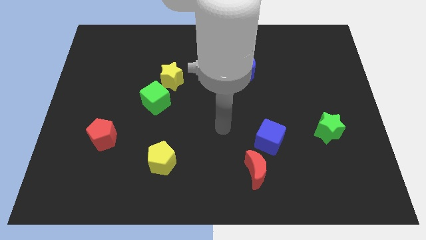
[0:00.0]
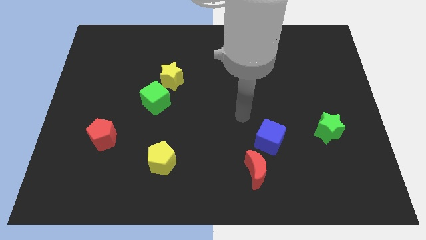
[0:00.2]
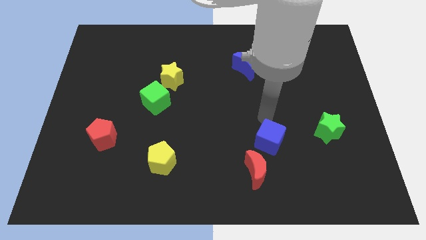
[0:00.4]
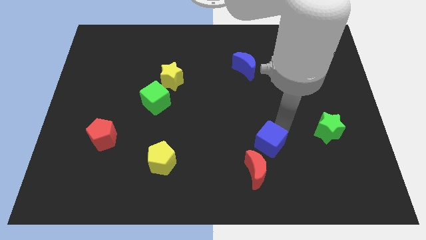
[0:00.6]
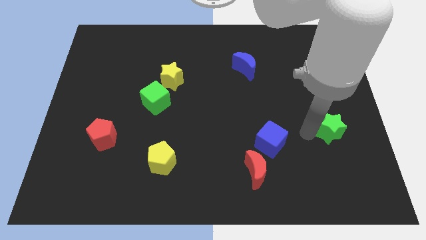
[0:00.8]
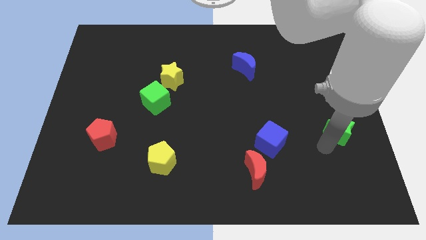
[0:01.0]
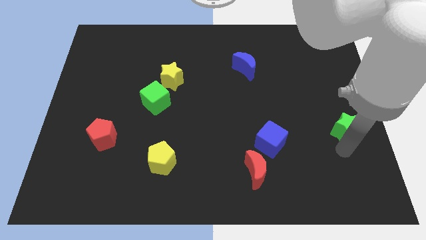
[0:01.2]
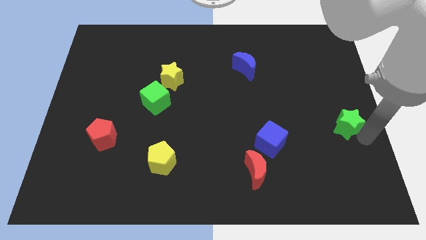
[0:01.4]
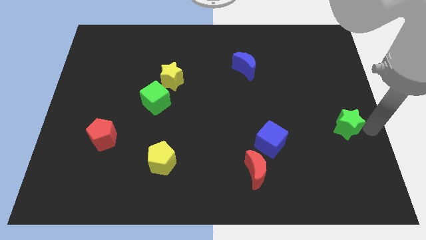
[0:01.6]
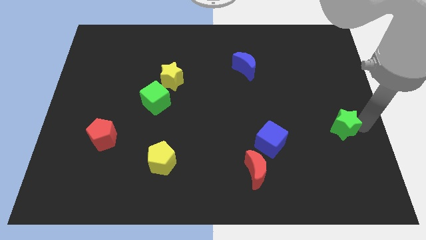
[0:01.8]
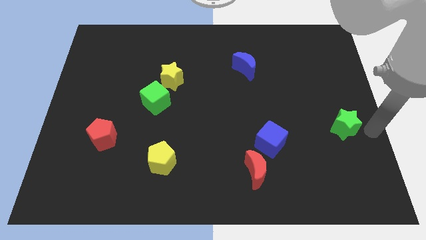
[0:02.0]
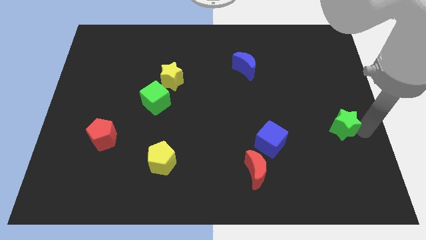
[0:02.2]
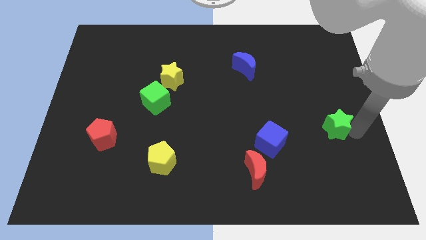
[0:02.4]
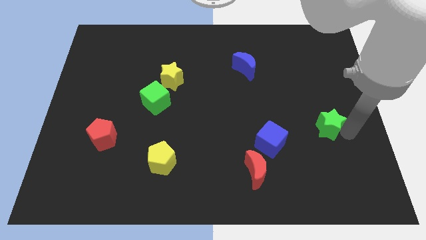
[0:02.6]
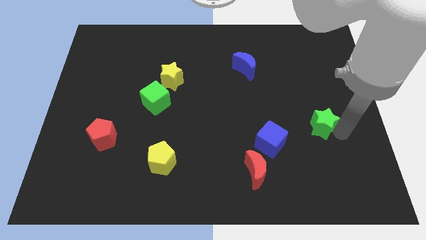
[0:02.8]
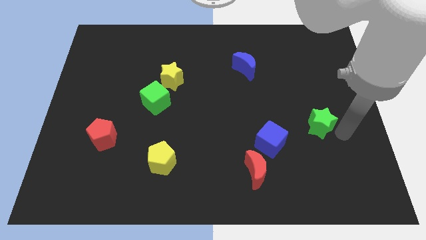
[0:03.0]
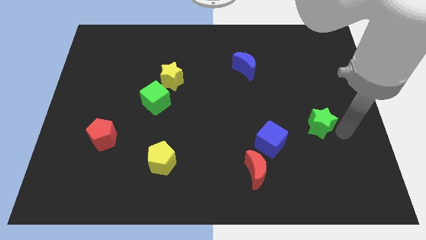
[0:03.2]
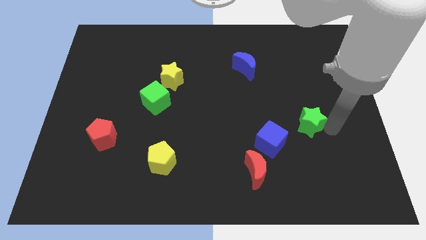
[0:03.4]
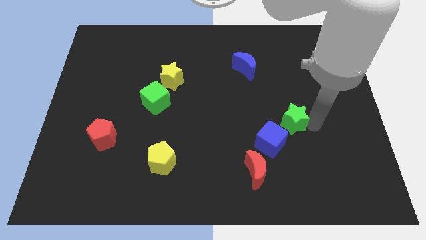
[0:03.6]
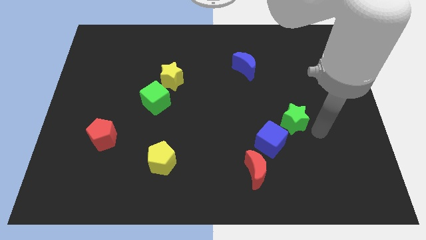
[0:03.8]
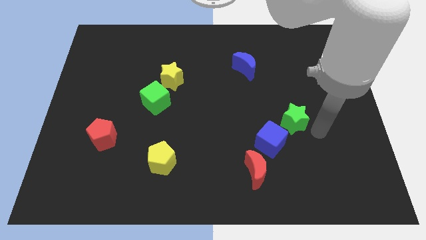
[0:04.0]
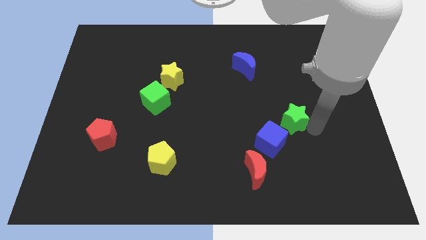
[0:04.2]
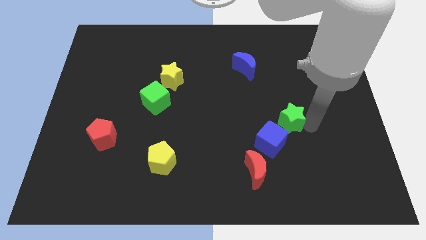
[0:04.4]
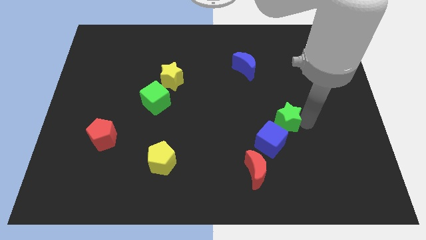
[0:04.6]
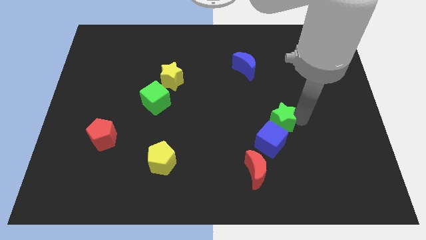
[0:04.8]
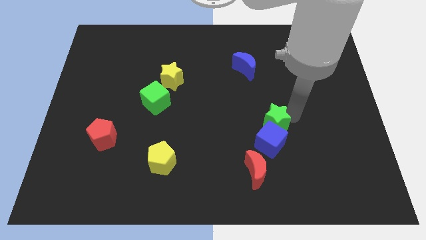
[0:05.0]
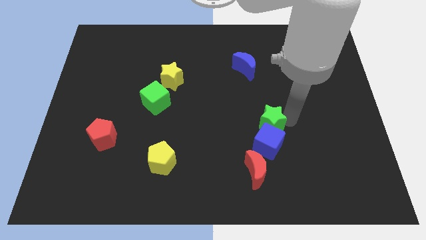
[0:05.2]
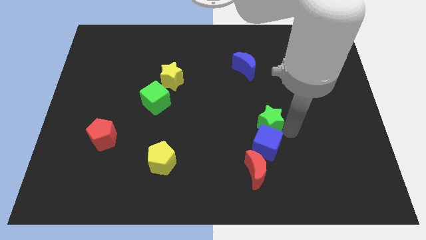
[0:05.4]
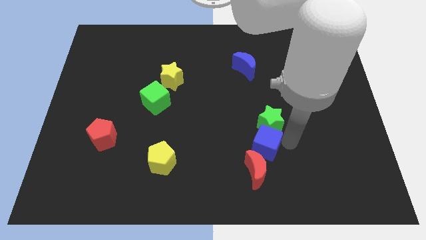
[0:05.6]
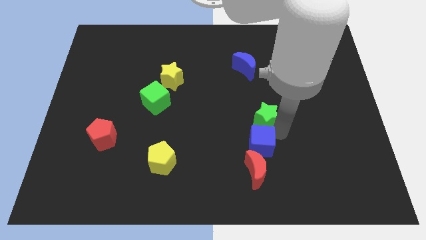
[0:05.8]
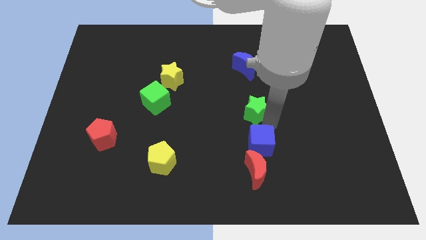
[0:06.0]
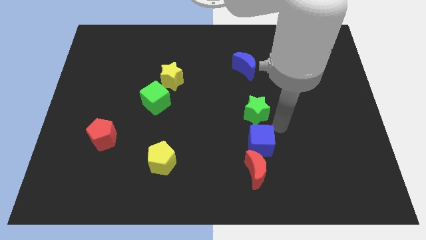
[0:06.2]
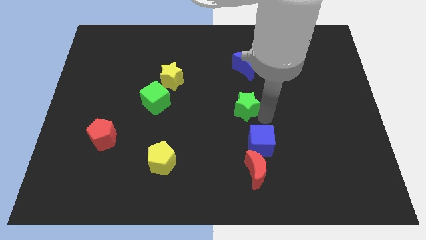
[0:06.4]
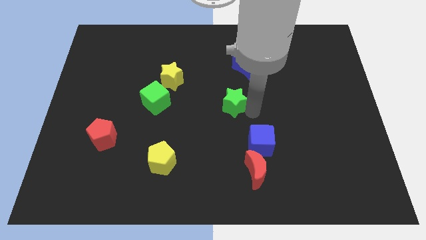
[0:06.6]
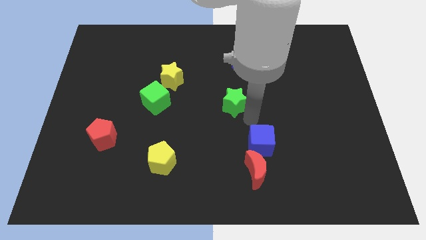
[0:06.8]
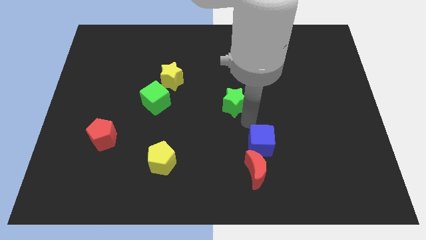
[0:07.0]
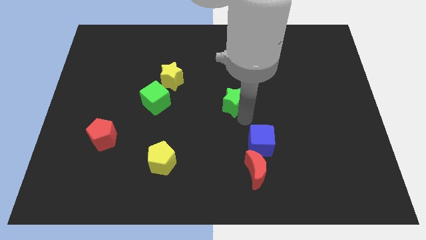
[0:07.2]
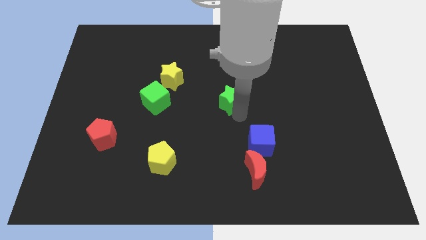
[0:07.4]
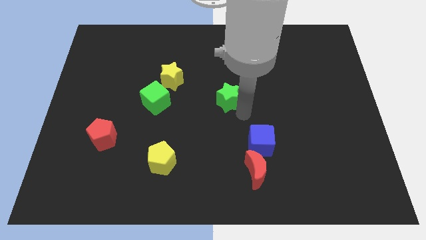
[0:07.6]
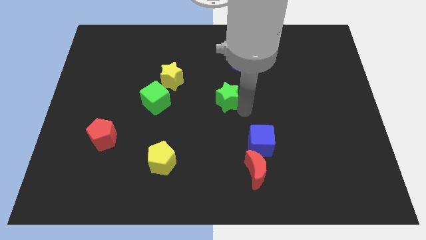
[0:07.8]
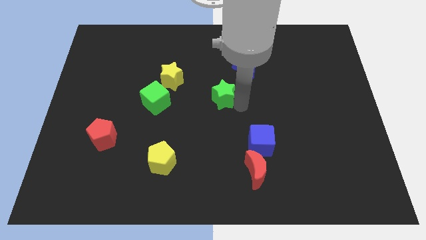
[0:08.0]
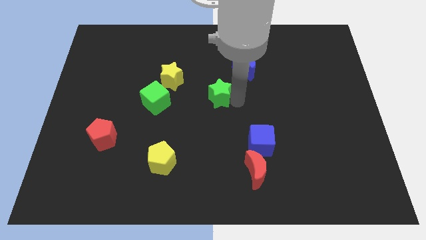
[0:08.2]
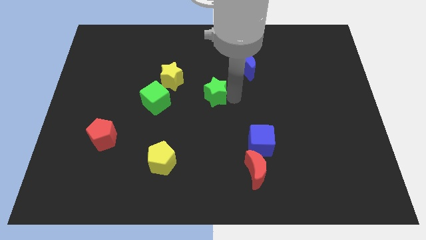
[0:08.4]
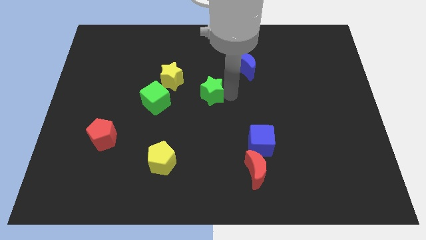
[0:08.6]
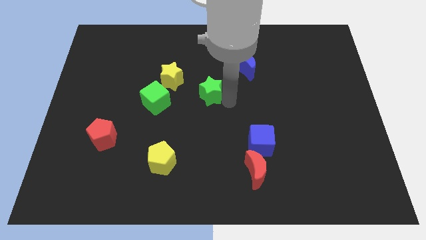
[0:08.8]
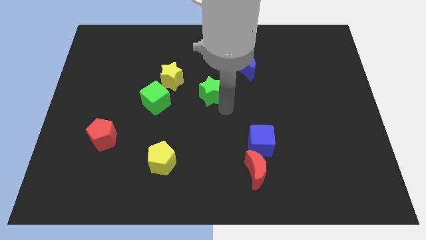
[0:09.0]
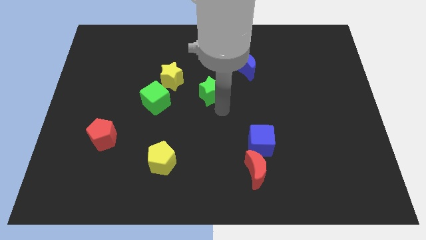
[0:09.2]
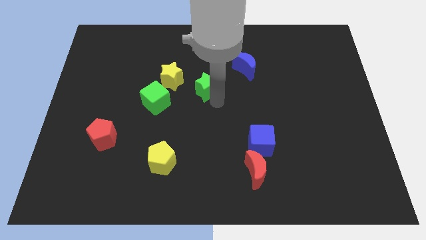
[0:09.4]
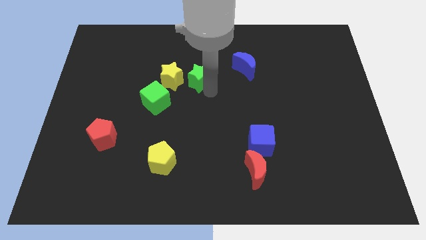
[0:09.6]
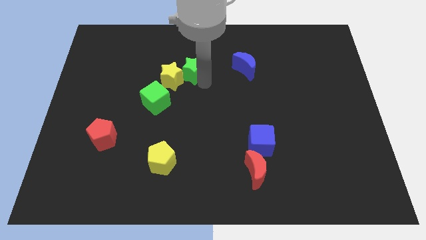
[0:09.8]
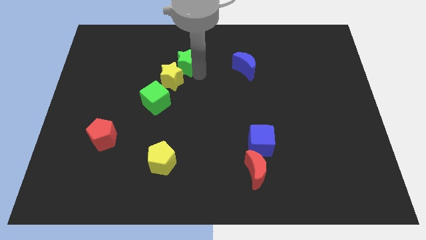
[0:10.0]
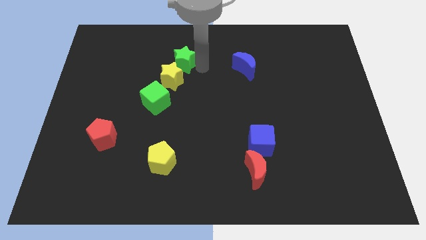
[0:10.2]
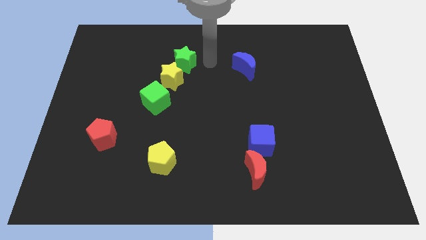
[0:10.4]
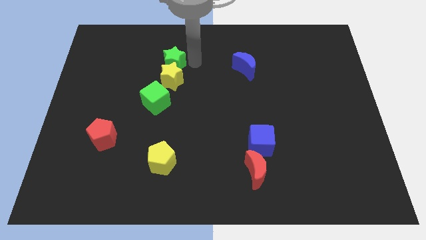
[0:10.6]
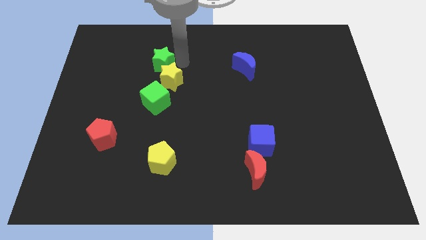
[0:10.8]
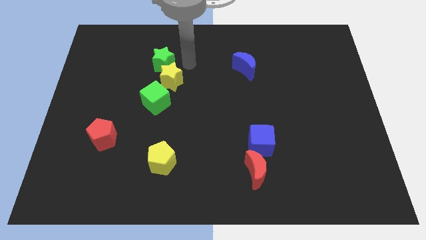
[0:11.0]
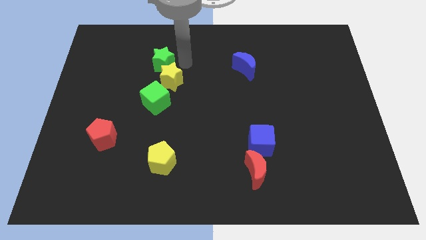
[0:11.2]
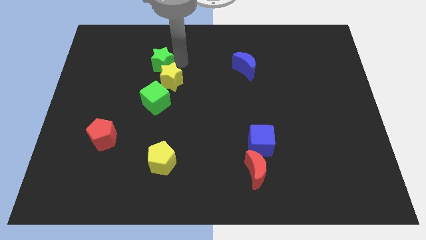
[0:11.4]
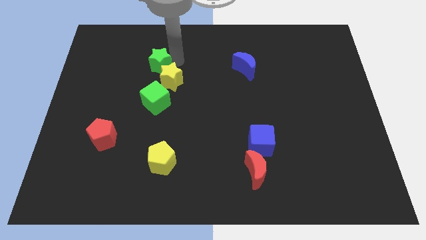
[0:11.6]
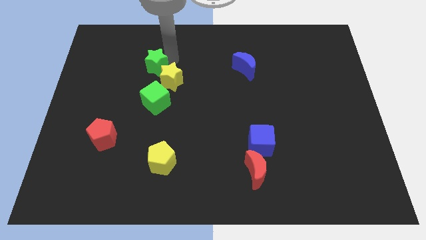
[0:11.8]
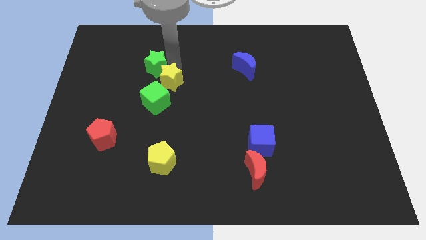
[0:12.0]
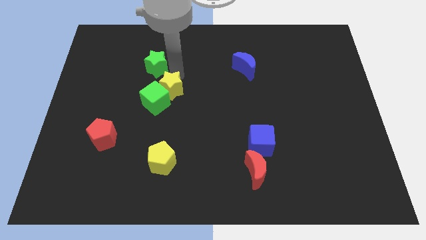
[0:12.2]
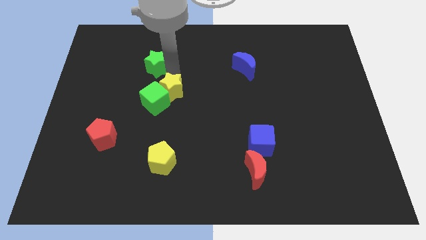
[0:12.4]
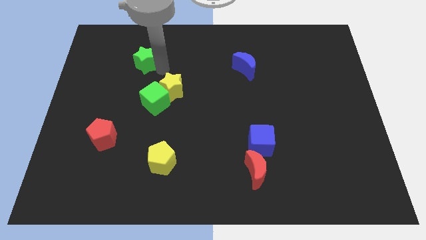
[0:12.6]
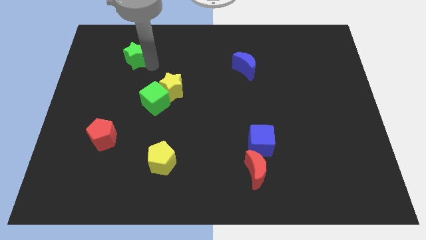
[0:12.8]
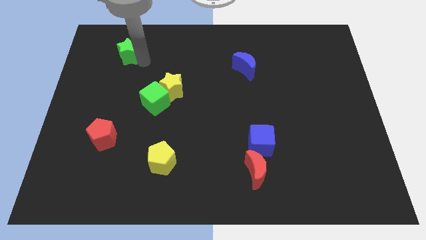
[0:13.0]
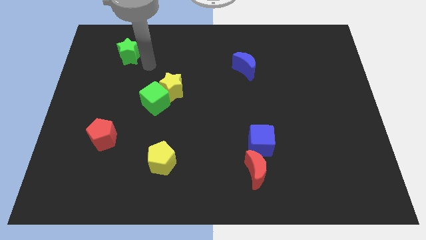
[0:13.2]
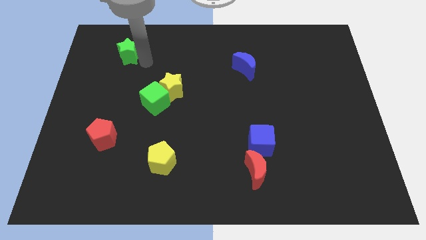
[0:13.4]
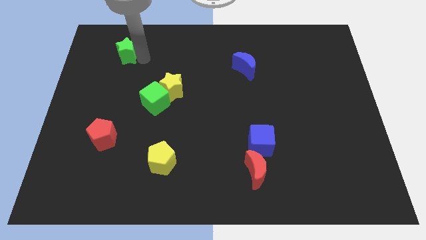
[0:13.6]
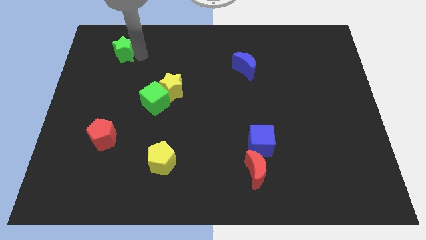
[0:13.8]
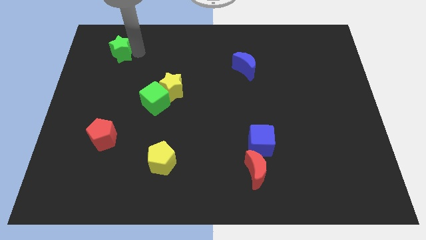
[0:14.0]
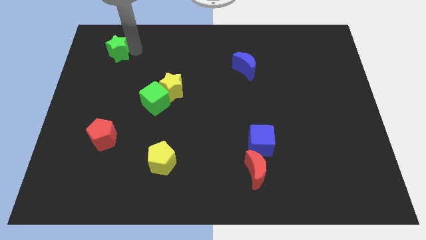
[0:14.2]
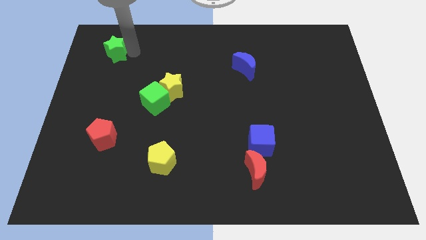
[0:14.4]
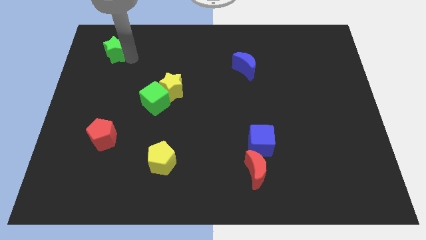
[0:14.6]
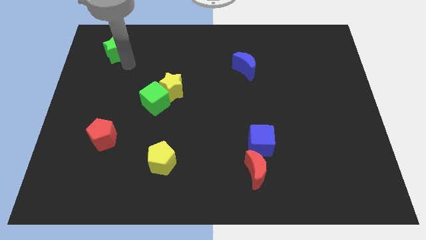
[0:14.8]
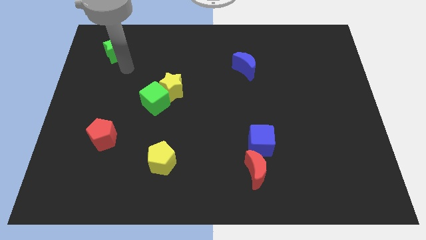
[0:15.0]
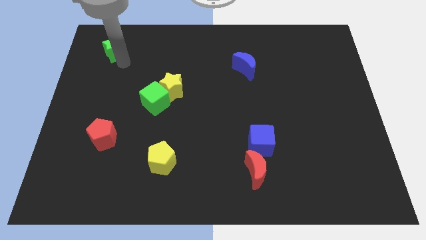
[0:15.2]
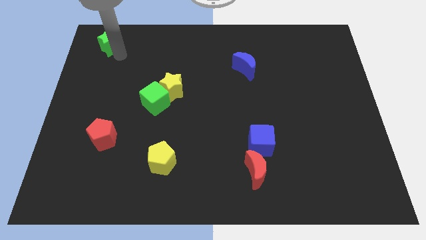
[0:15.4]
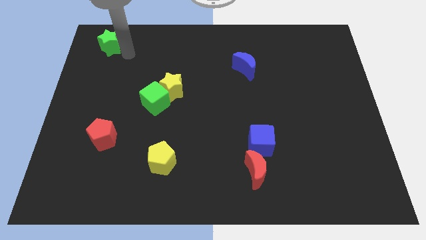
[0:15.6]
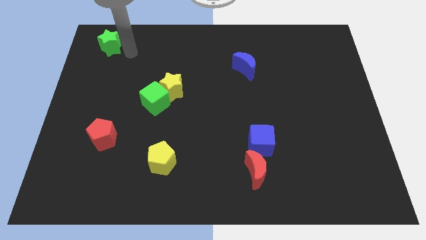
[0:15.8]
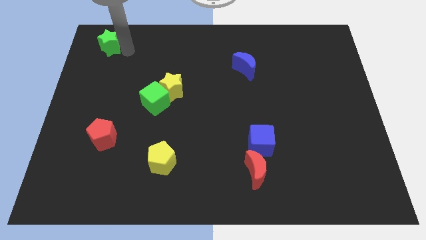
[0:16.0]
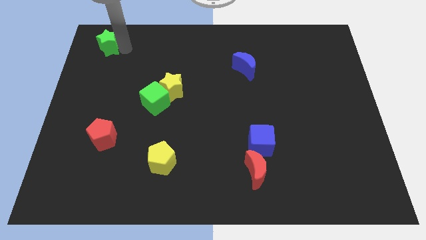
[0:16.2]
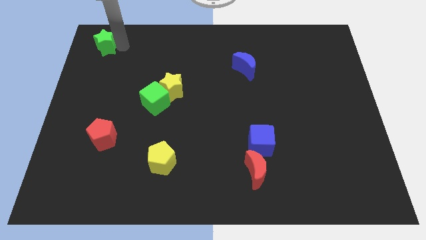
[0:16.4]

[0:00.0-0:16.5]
move the green star to the upper left corner
